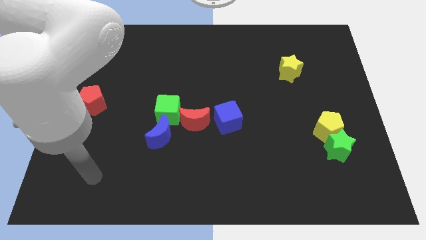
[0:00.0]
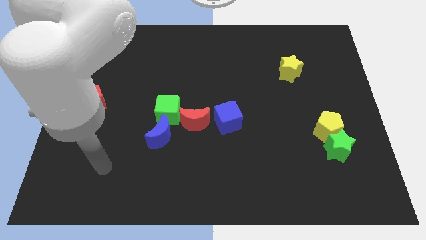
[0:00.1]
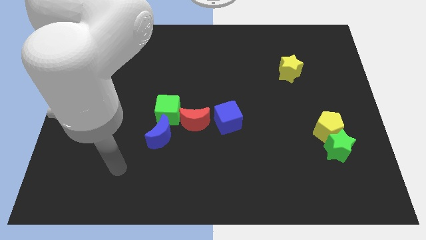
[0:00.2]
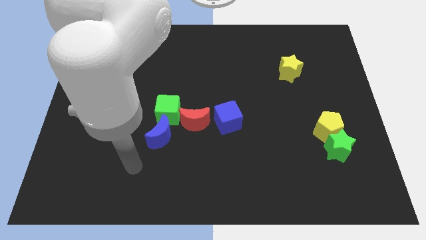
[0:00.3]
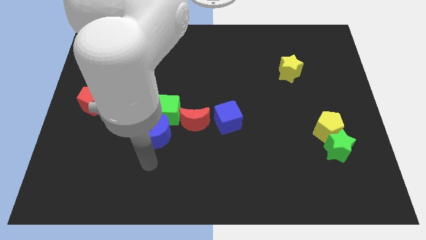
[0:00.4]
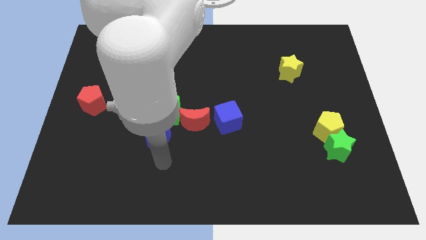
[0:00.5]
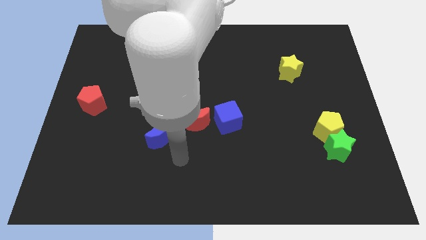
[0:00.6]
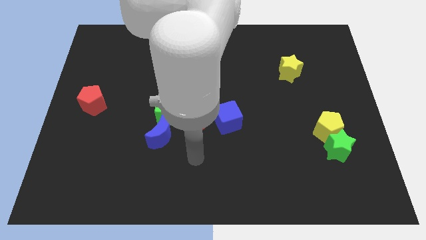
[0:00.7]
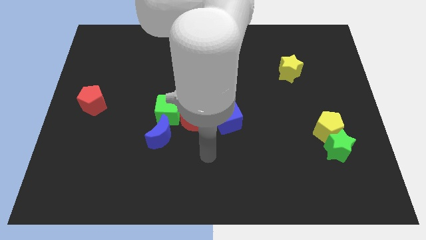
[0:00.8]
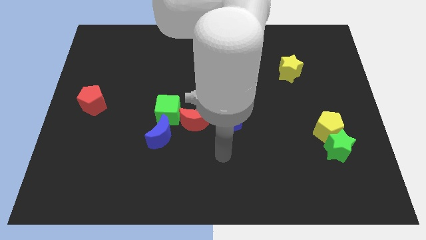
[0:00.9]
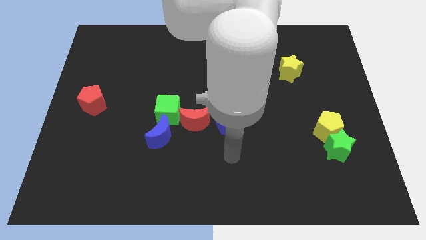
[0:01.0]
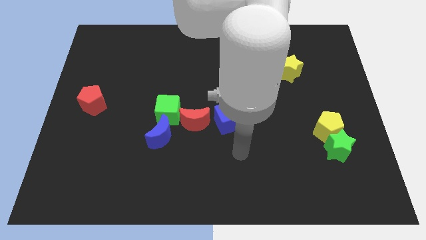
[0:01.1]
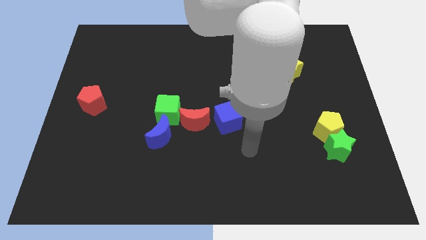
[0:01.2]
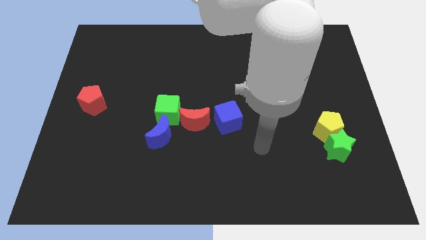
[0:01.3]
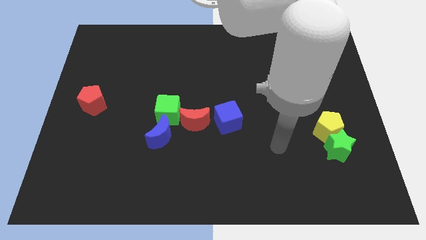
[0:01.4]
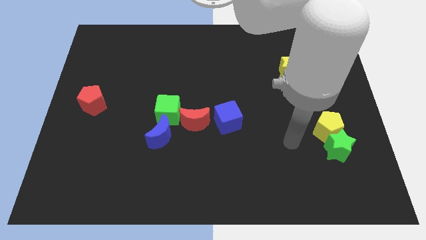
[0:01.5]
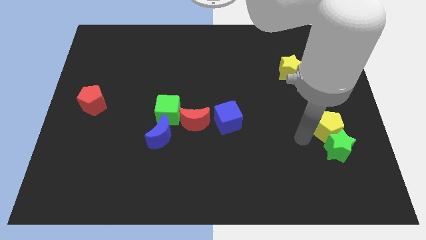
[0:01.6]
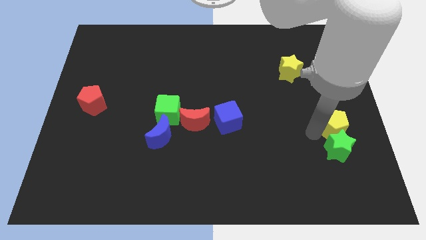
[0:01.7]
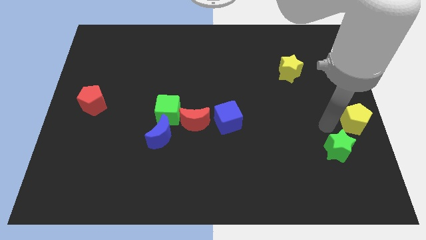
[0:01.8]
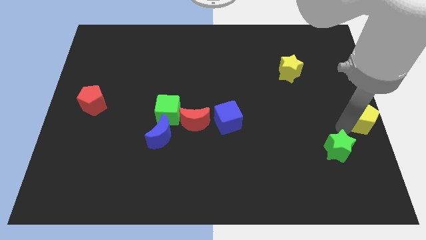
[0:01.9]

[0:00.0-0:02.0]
separate the green star from the yellow pentagon

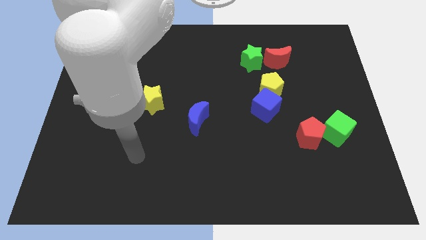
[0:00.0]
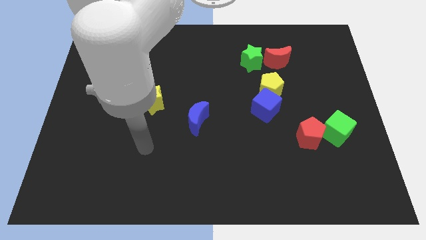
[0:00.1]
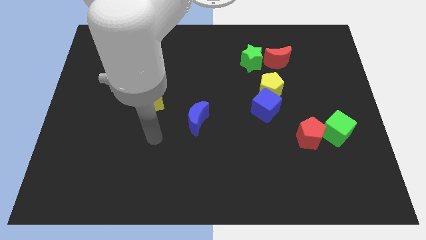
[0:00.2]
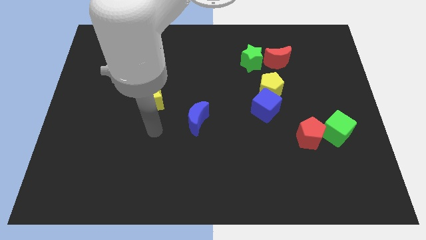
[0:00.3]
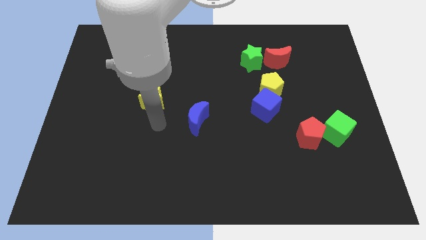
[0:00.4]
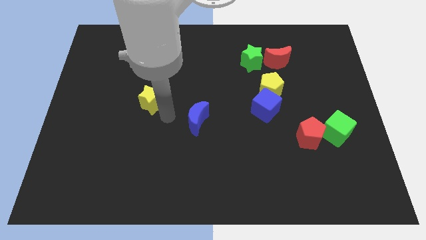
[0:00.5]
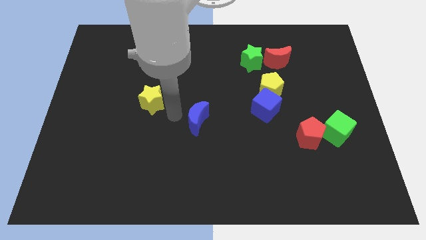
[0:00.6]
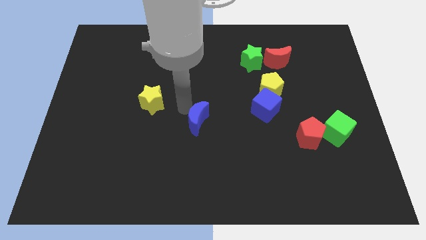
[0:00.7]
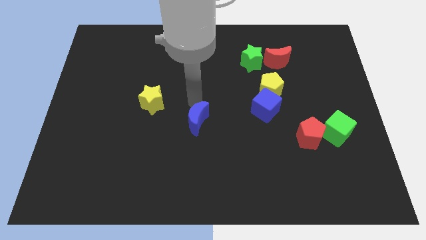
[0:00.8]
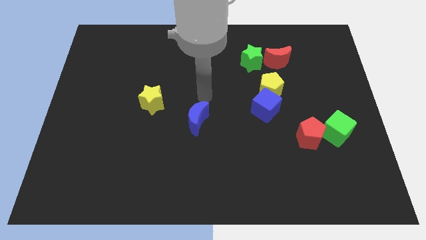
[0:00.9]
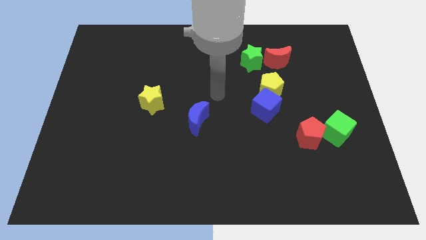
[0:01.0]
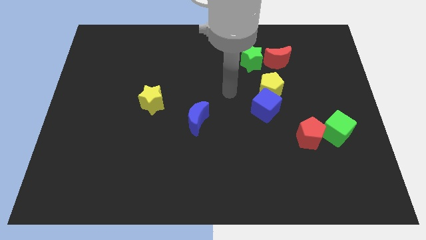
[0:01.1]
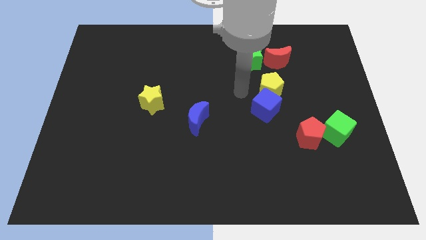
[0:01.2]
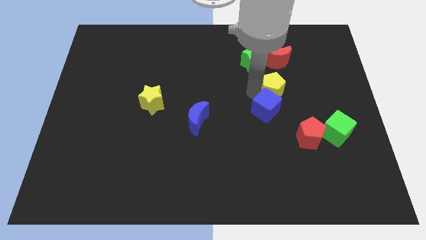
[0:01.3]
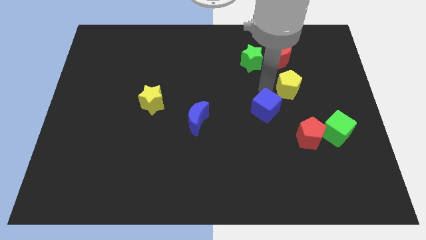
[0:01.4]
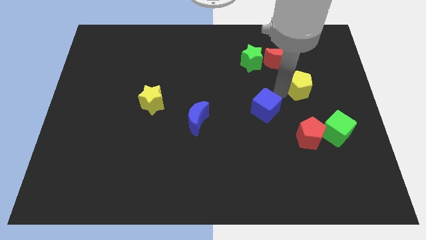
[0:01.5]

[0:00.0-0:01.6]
pull the blue cube apart from the yellow pentagon

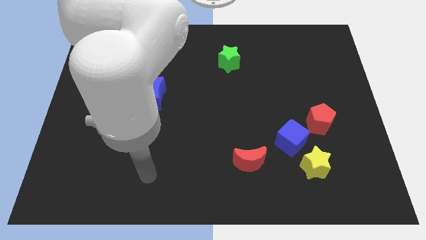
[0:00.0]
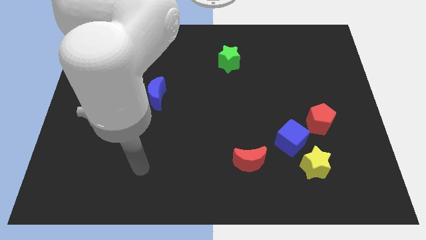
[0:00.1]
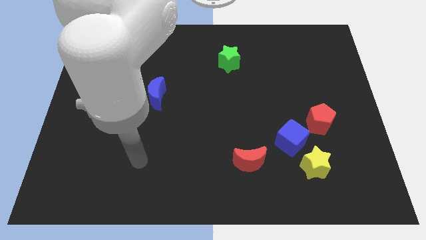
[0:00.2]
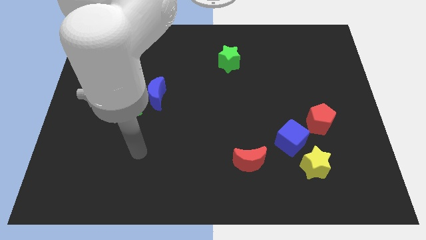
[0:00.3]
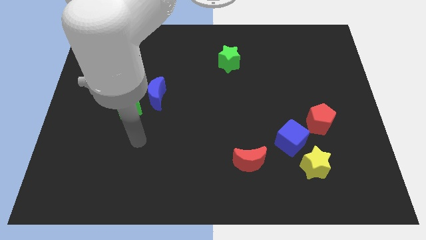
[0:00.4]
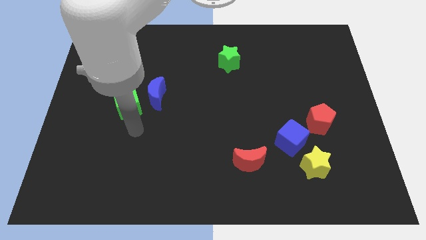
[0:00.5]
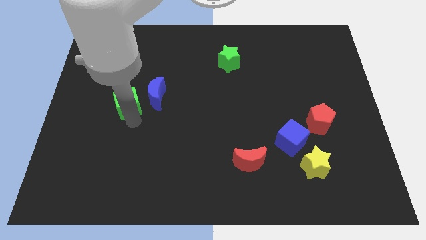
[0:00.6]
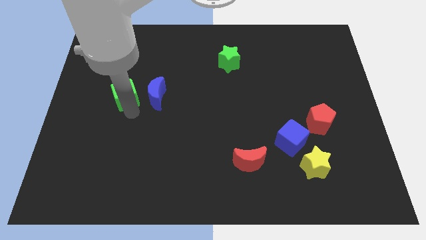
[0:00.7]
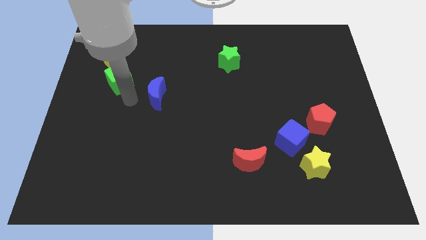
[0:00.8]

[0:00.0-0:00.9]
move the blue moon away from the green cube

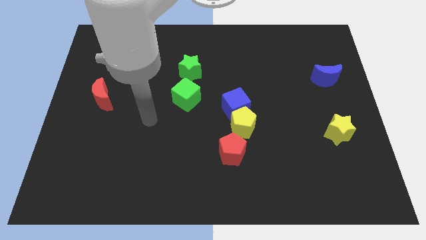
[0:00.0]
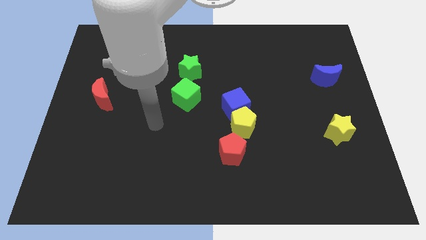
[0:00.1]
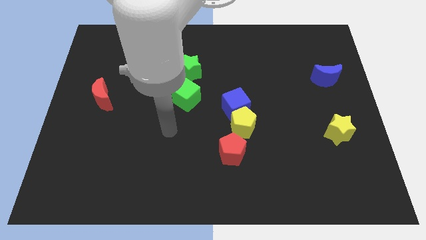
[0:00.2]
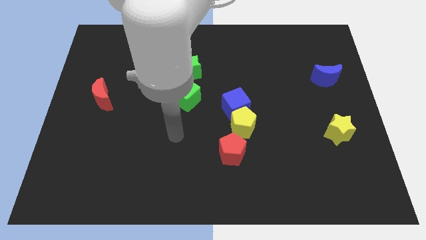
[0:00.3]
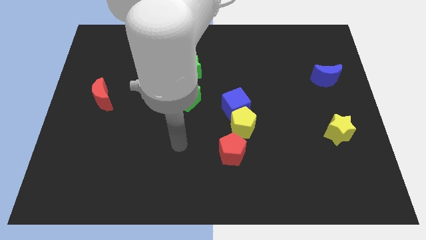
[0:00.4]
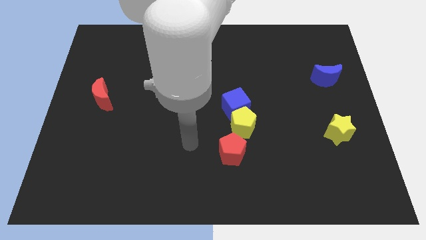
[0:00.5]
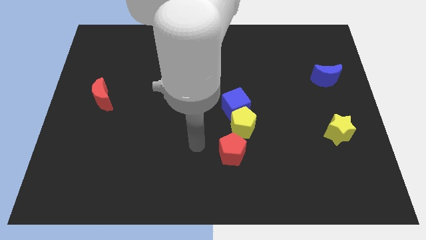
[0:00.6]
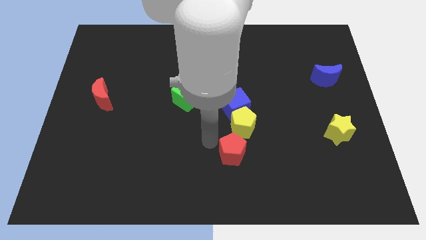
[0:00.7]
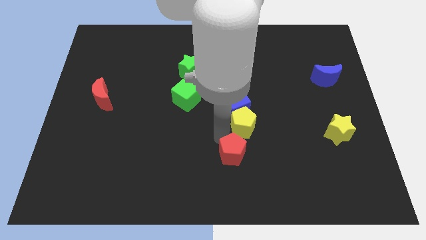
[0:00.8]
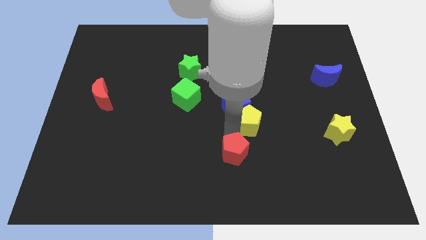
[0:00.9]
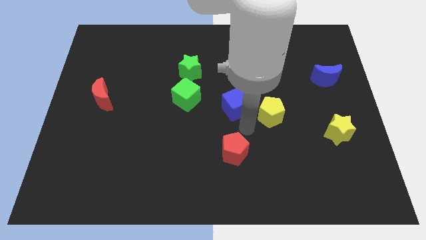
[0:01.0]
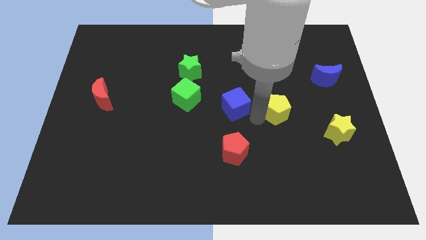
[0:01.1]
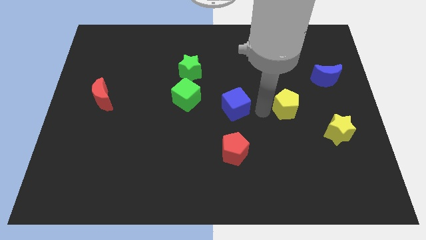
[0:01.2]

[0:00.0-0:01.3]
separate the blue cube from the yellow pentagon

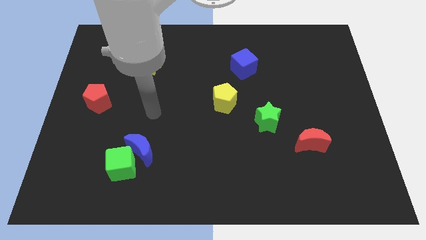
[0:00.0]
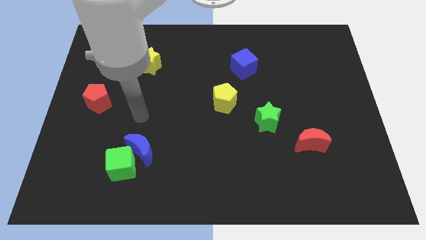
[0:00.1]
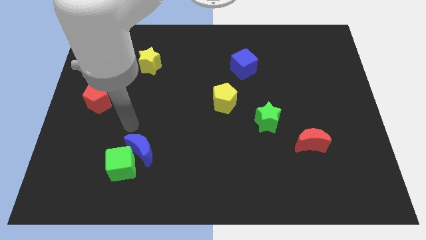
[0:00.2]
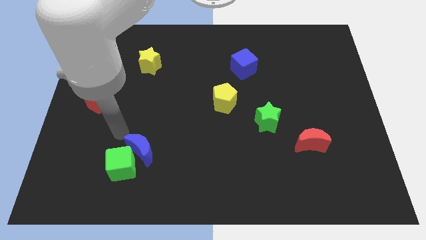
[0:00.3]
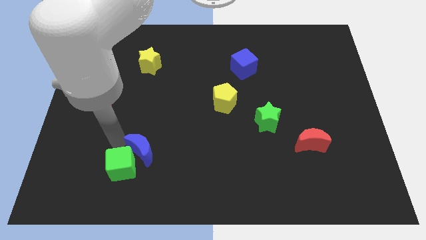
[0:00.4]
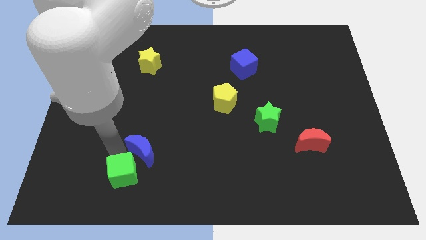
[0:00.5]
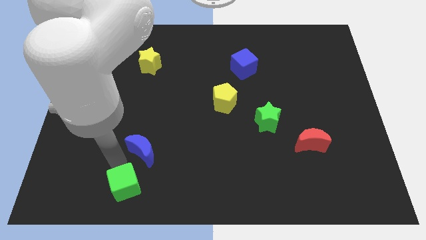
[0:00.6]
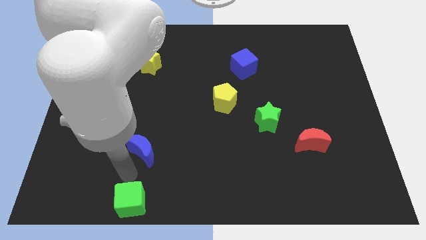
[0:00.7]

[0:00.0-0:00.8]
separate the blue moon from the green cube

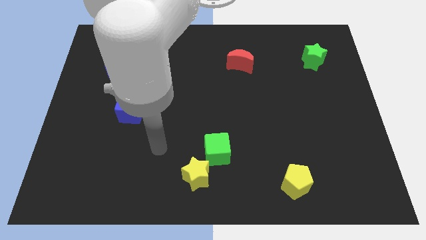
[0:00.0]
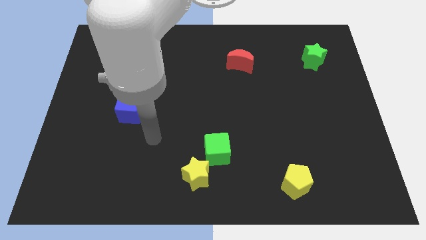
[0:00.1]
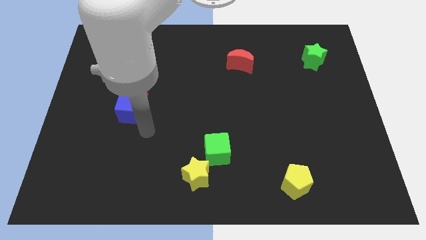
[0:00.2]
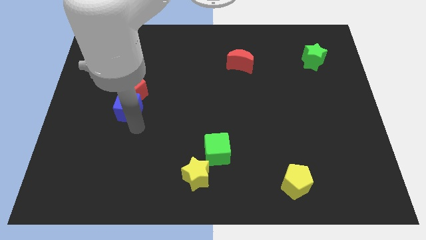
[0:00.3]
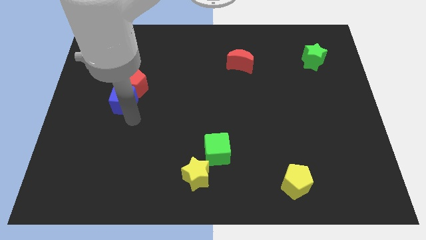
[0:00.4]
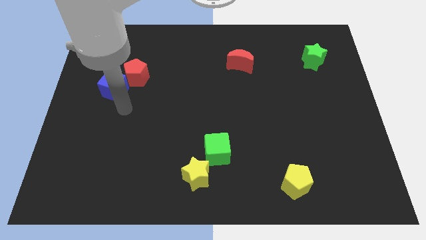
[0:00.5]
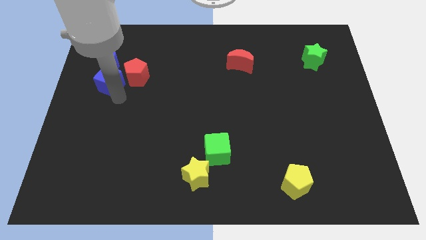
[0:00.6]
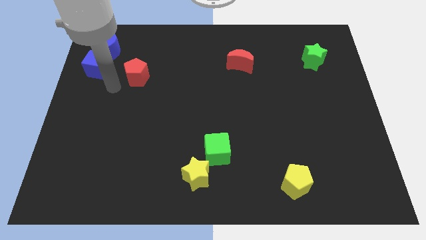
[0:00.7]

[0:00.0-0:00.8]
pull the red pentagon apart from the blue cube

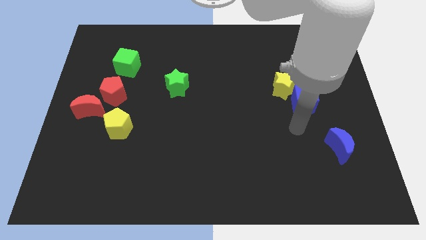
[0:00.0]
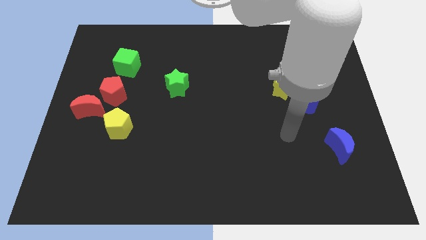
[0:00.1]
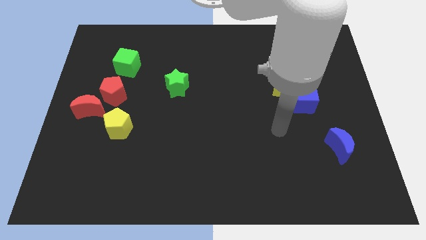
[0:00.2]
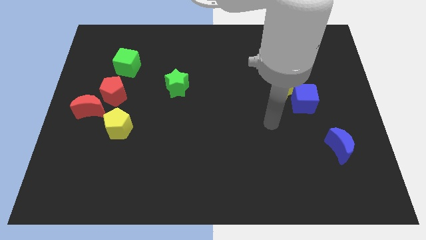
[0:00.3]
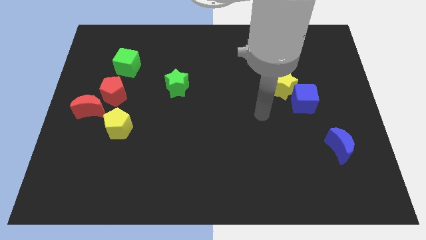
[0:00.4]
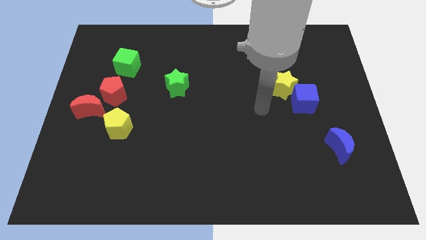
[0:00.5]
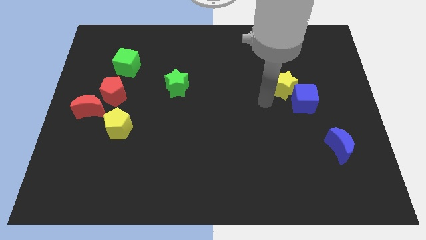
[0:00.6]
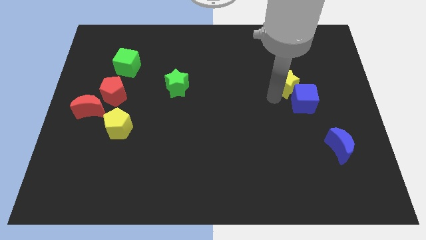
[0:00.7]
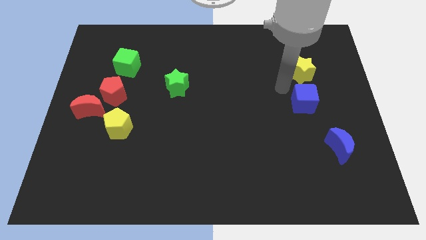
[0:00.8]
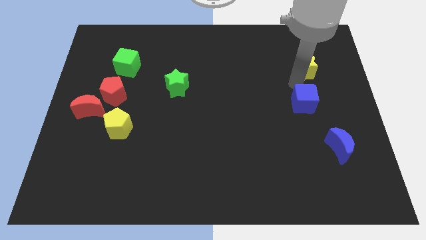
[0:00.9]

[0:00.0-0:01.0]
separate the blue cube from the yellow star

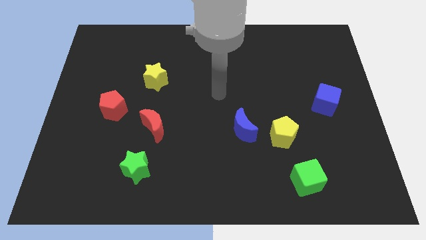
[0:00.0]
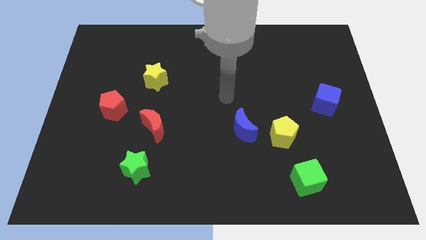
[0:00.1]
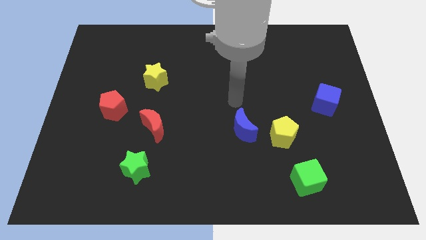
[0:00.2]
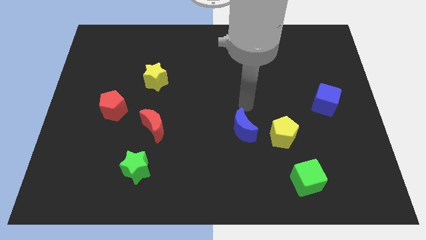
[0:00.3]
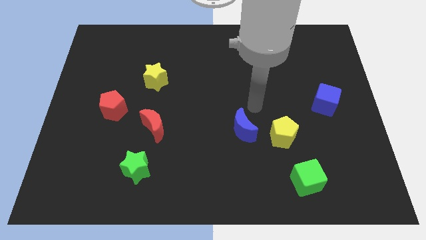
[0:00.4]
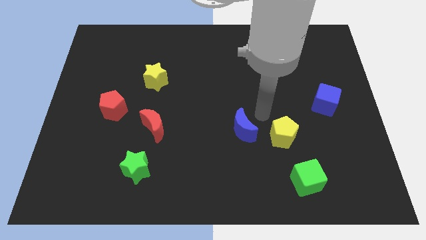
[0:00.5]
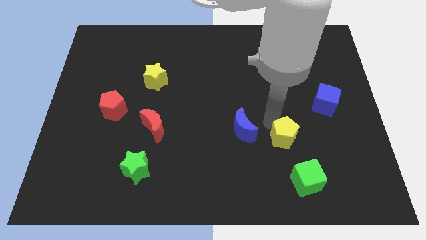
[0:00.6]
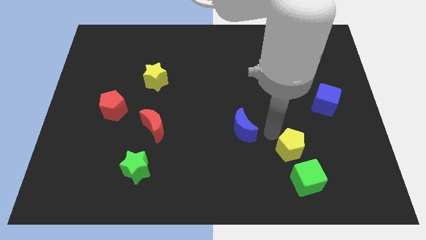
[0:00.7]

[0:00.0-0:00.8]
move the blue moon away from the yellow pentagon

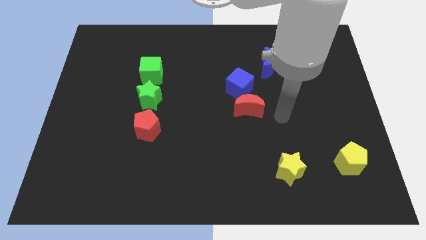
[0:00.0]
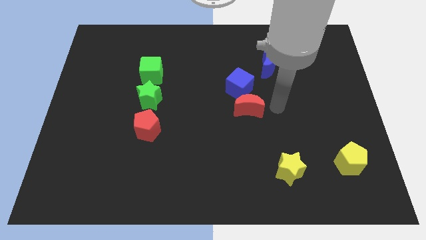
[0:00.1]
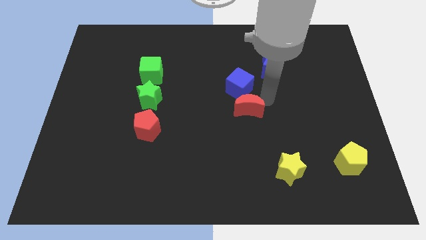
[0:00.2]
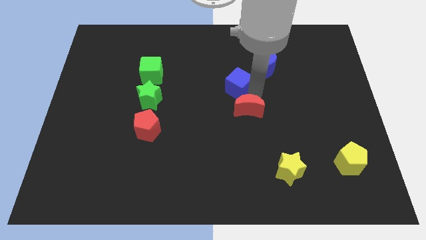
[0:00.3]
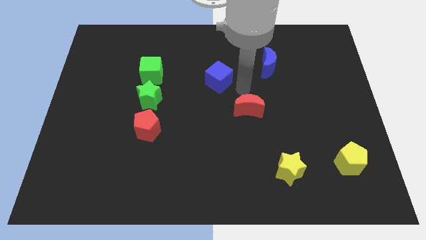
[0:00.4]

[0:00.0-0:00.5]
separate the red moon from the blue cube
